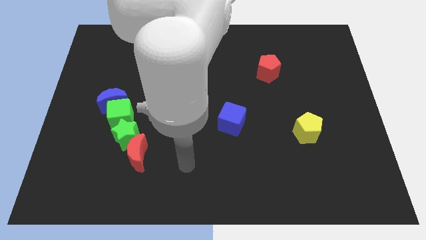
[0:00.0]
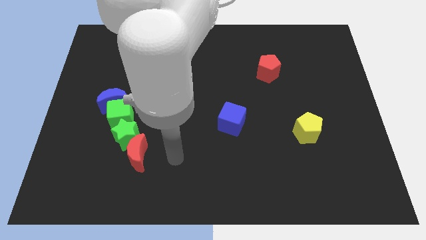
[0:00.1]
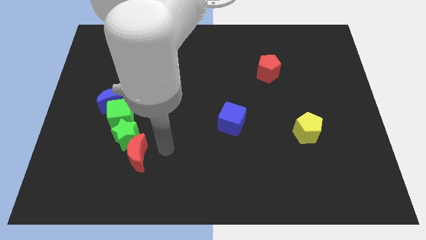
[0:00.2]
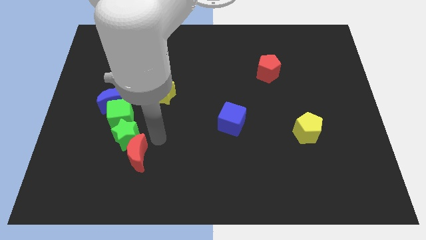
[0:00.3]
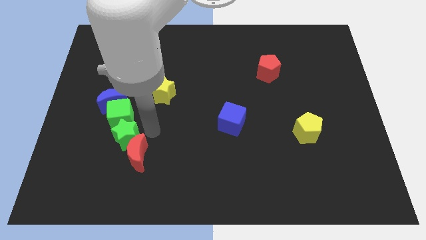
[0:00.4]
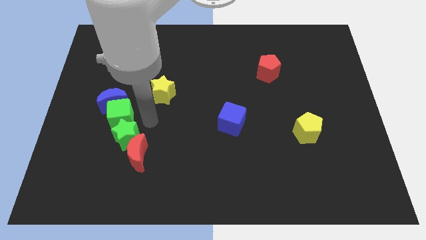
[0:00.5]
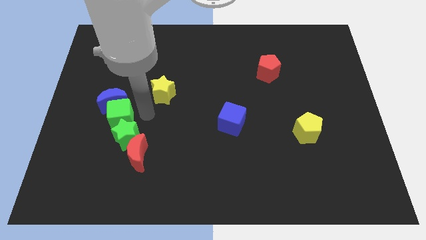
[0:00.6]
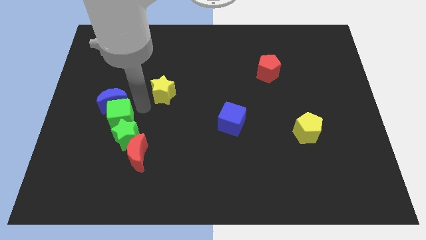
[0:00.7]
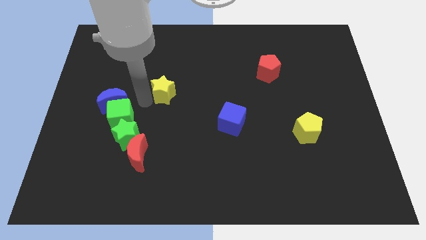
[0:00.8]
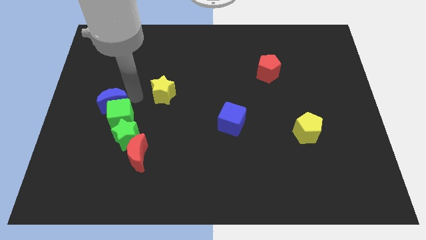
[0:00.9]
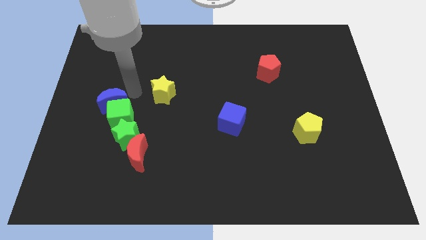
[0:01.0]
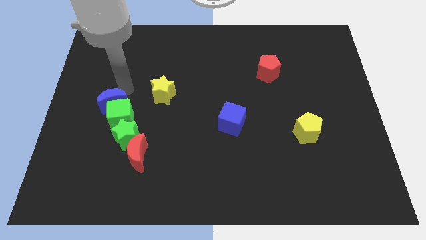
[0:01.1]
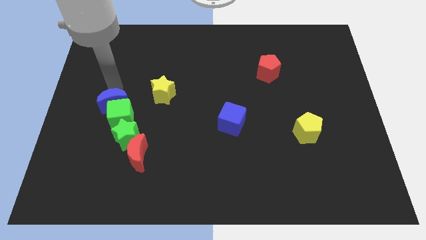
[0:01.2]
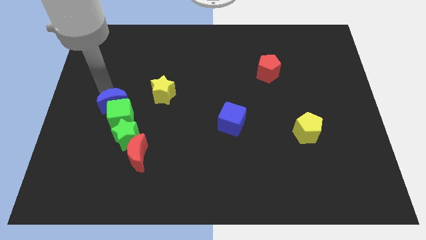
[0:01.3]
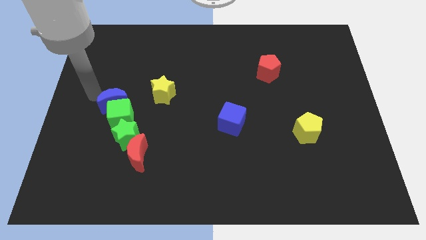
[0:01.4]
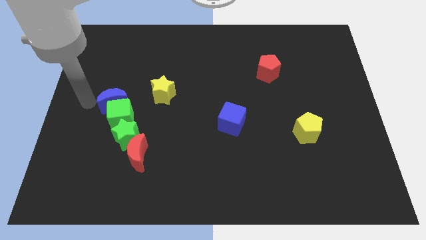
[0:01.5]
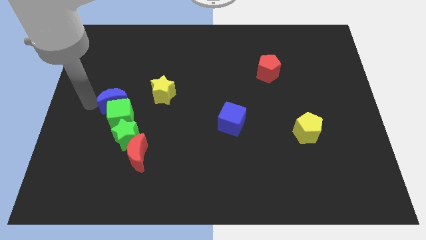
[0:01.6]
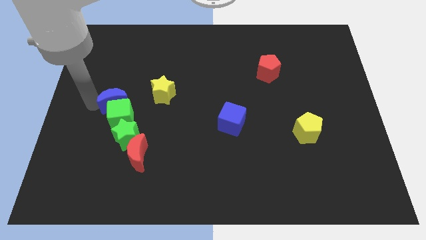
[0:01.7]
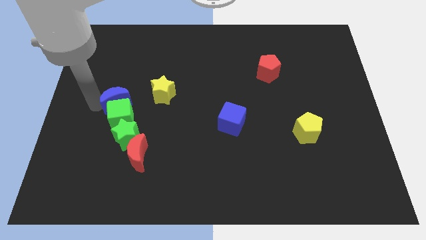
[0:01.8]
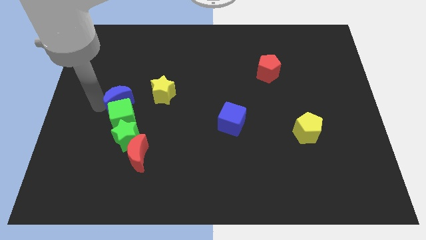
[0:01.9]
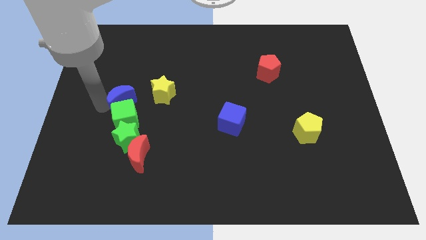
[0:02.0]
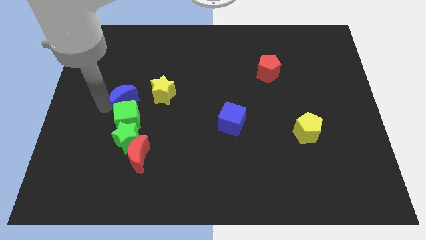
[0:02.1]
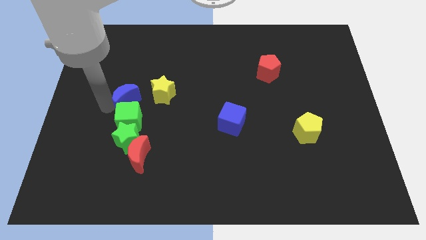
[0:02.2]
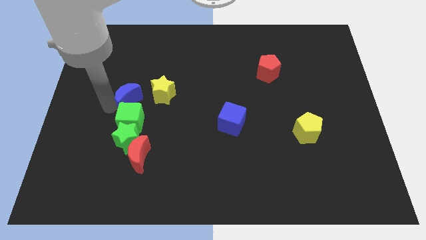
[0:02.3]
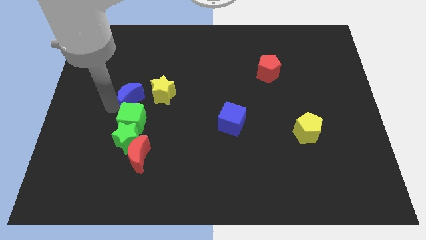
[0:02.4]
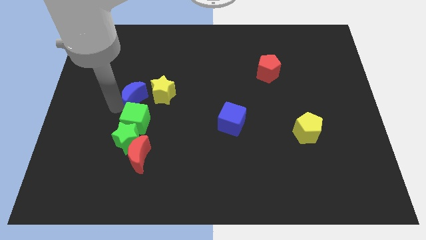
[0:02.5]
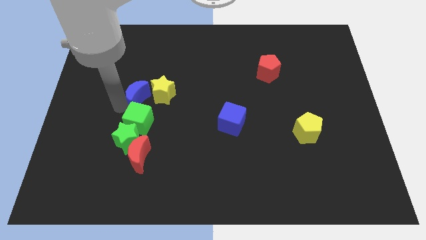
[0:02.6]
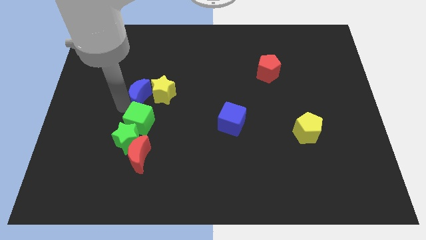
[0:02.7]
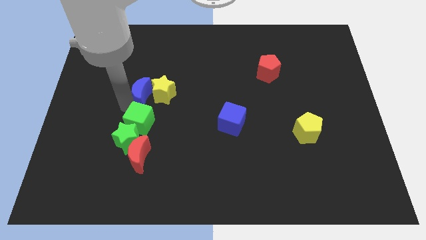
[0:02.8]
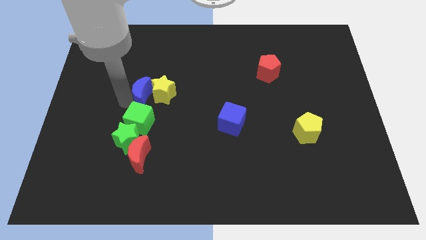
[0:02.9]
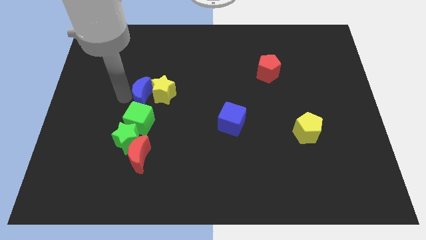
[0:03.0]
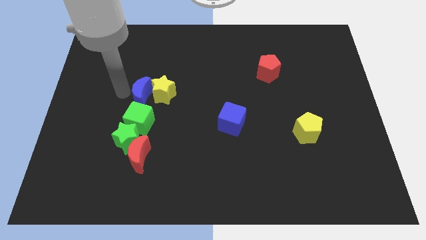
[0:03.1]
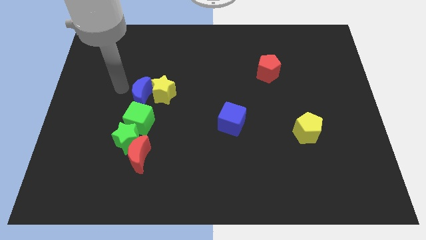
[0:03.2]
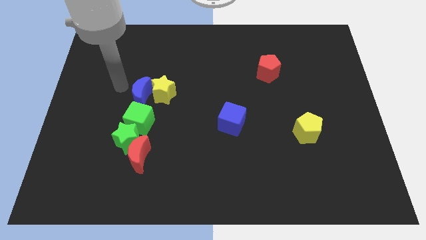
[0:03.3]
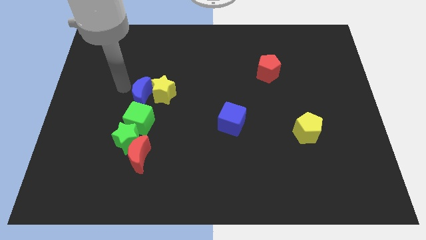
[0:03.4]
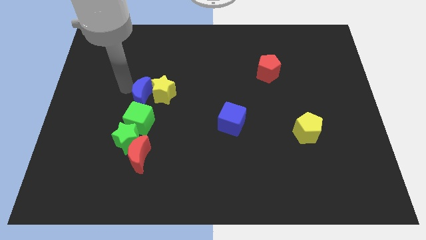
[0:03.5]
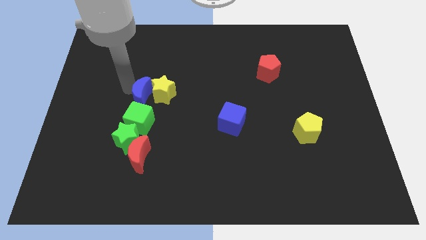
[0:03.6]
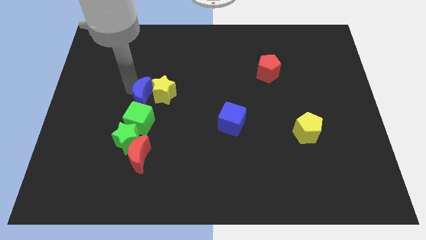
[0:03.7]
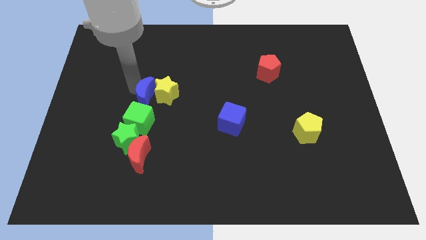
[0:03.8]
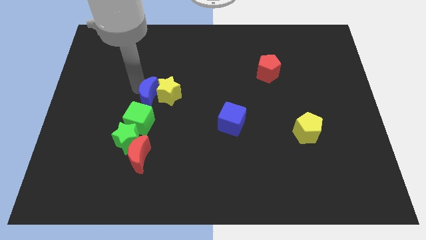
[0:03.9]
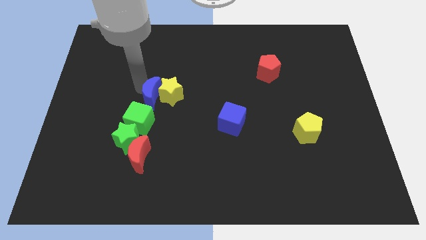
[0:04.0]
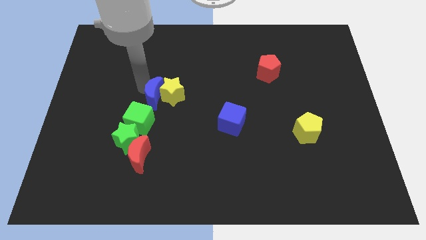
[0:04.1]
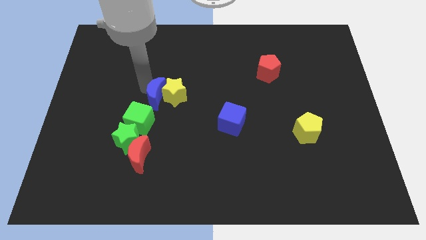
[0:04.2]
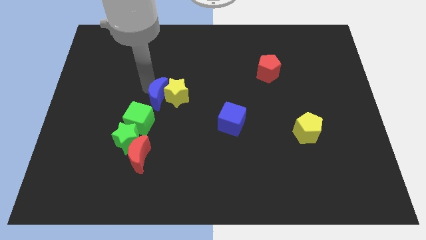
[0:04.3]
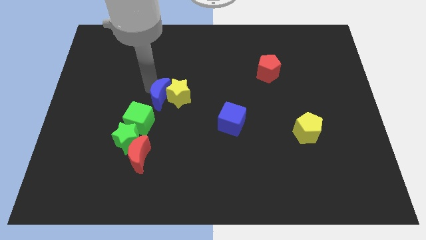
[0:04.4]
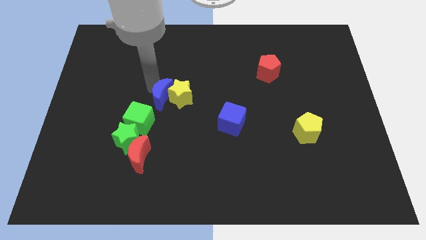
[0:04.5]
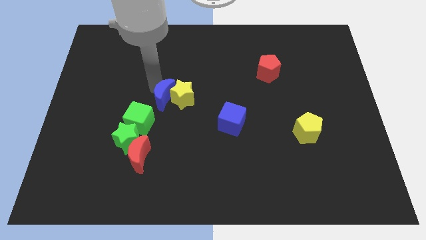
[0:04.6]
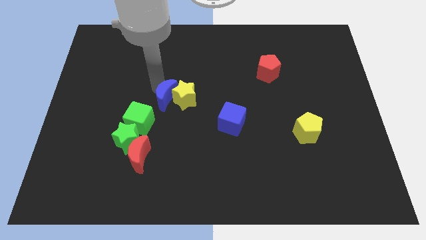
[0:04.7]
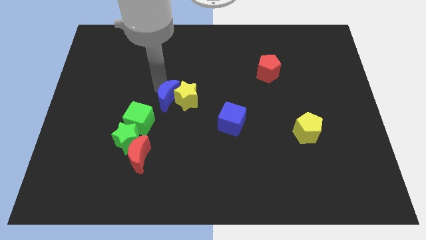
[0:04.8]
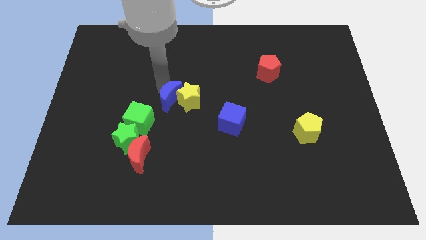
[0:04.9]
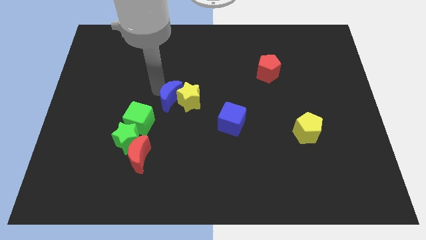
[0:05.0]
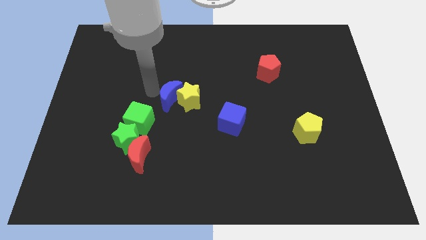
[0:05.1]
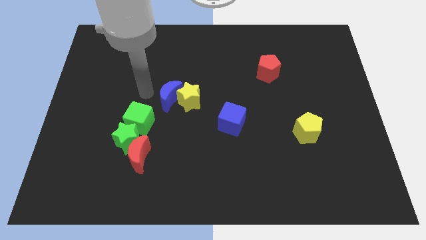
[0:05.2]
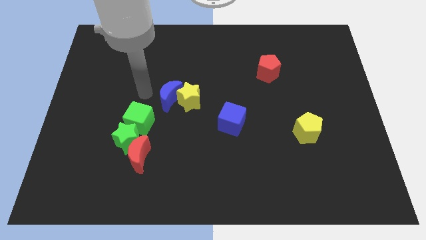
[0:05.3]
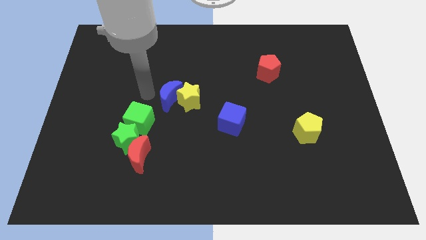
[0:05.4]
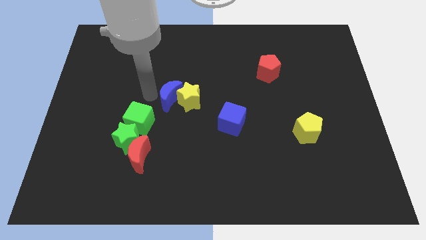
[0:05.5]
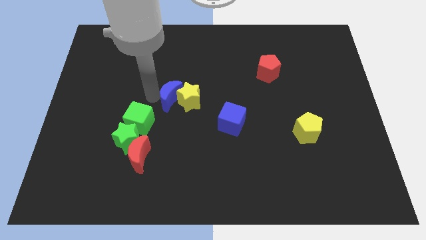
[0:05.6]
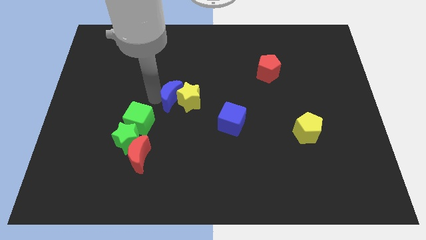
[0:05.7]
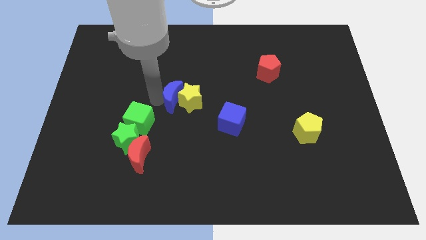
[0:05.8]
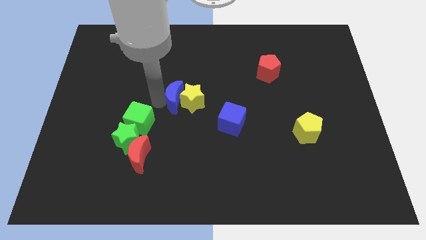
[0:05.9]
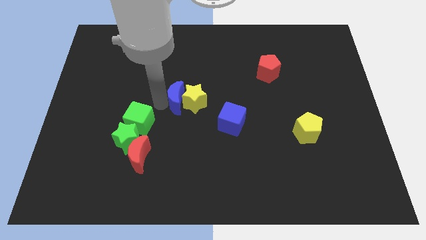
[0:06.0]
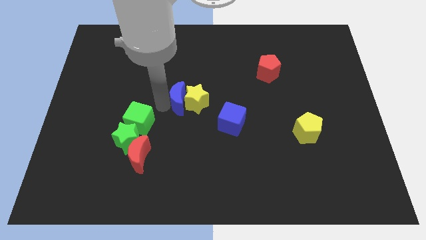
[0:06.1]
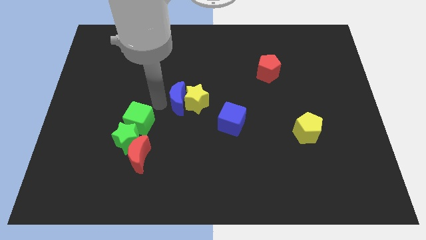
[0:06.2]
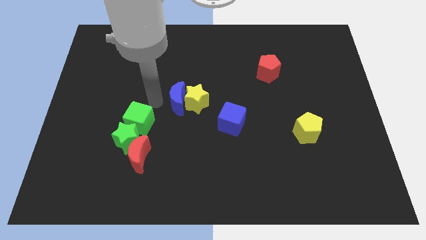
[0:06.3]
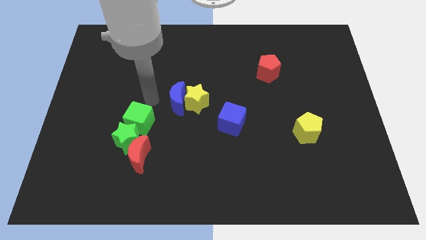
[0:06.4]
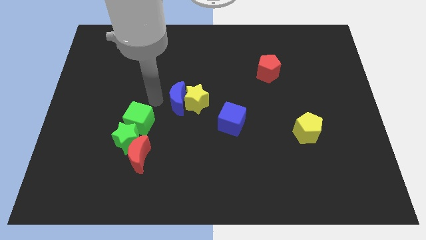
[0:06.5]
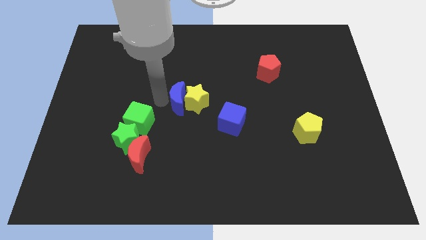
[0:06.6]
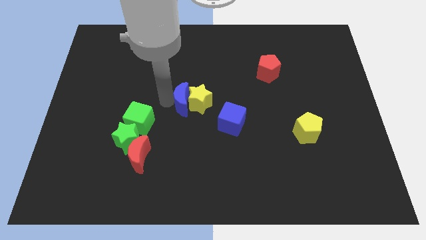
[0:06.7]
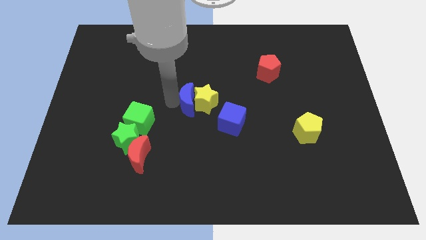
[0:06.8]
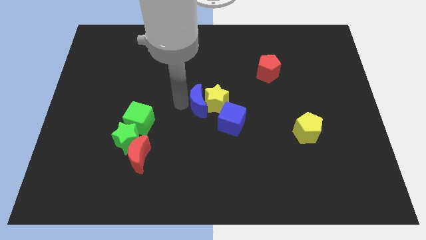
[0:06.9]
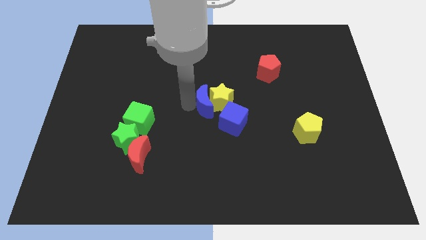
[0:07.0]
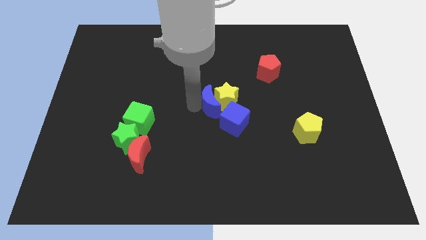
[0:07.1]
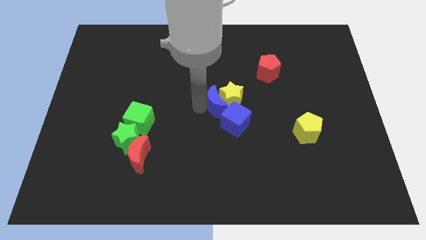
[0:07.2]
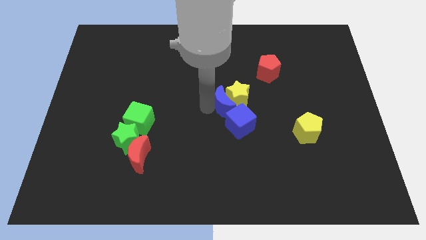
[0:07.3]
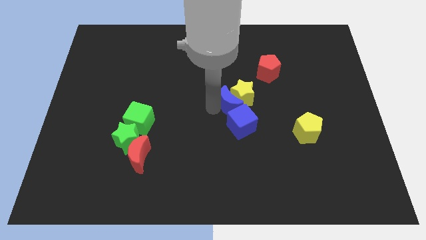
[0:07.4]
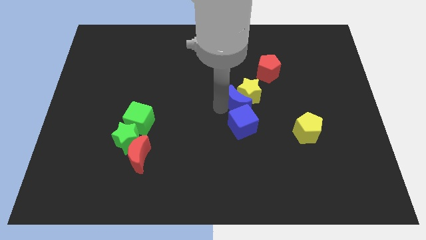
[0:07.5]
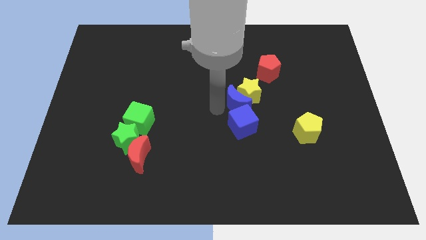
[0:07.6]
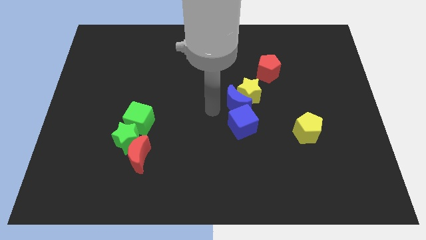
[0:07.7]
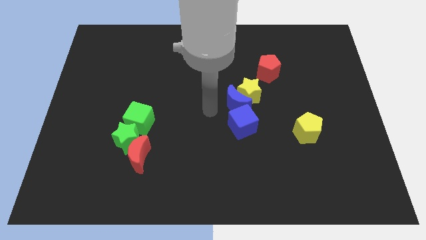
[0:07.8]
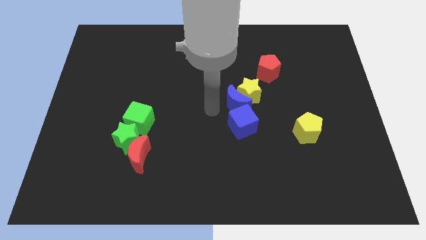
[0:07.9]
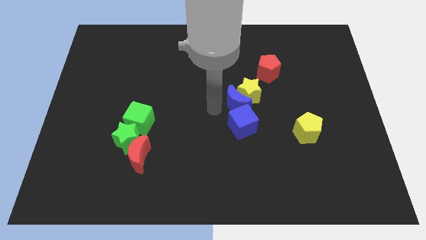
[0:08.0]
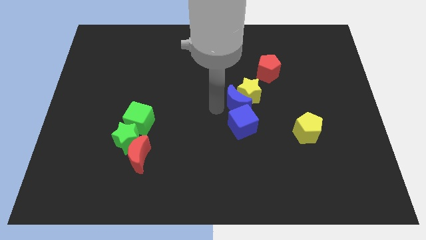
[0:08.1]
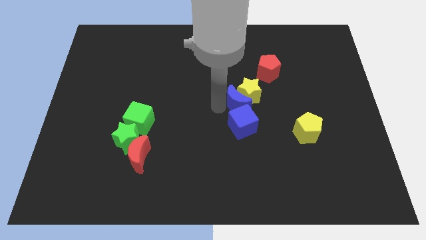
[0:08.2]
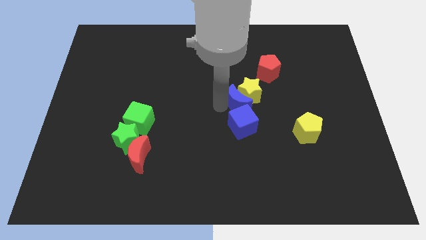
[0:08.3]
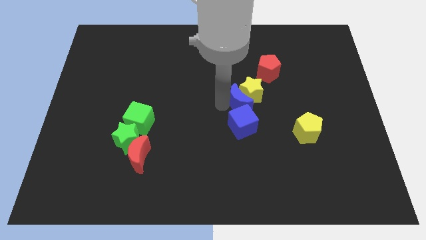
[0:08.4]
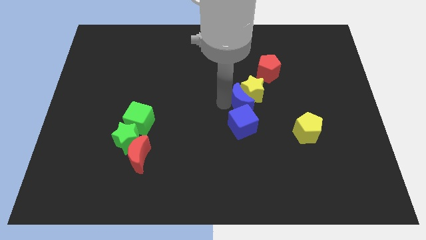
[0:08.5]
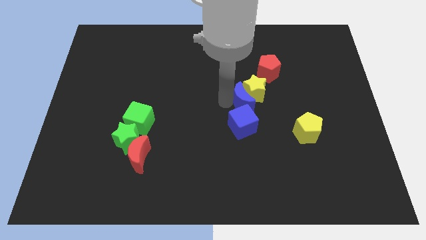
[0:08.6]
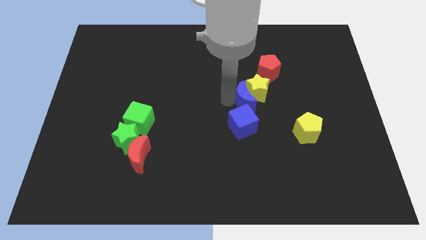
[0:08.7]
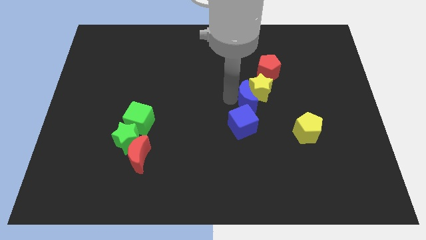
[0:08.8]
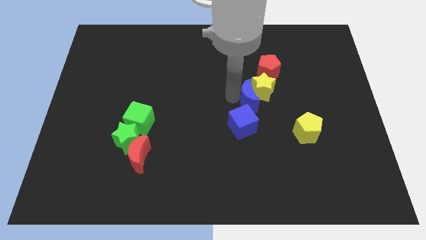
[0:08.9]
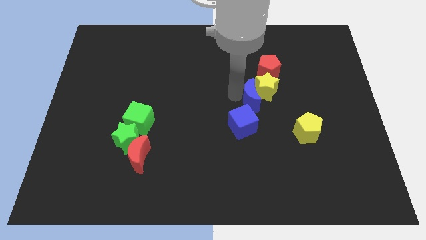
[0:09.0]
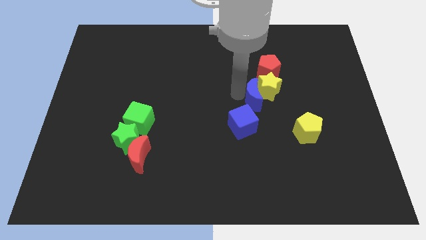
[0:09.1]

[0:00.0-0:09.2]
push the blue moon to the bottom side of the red pentagon
